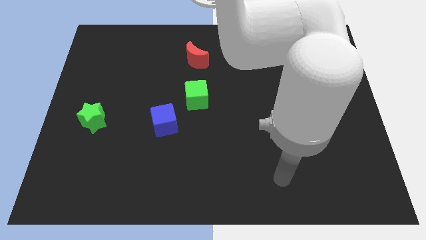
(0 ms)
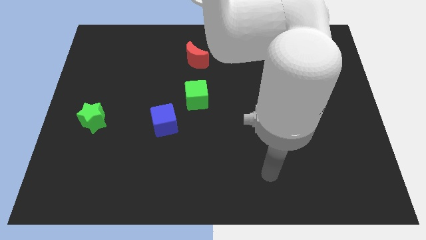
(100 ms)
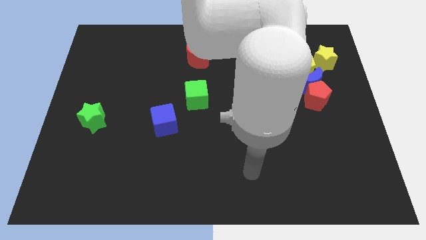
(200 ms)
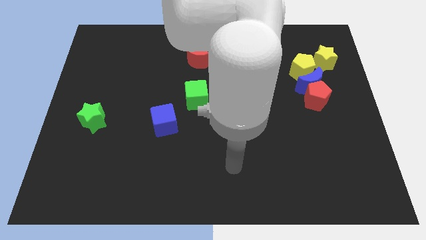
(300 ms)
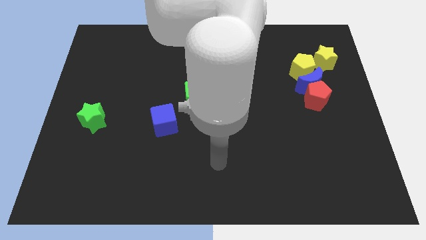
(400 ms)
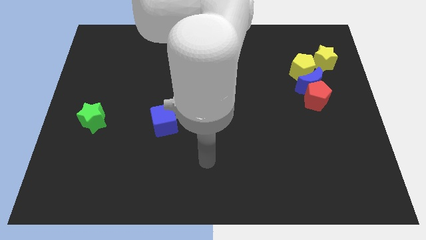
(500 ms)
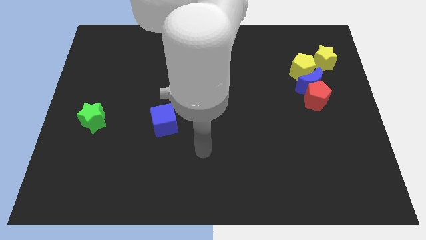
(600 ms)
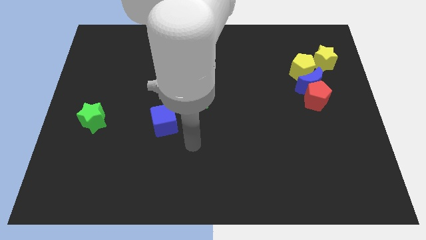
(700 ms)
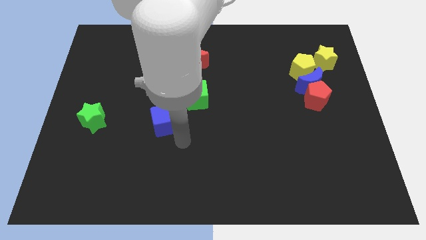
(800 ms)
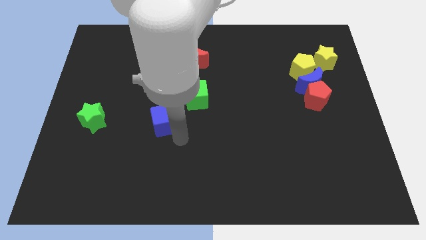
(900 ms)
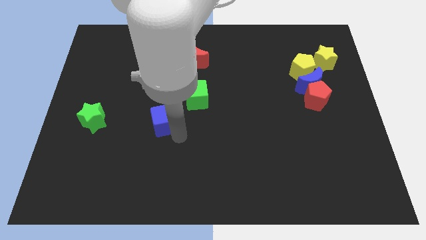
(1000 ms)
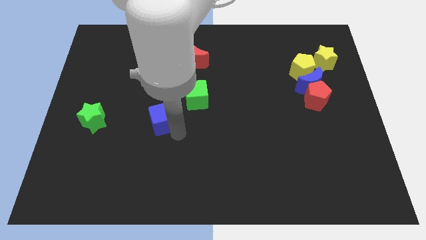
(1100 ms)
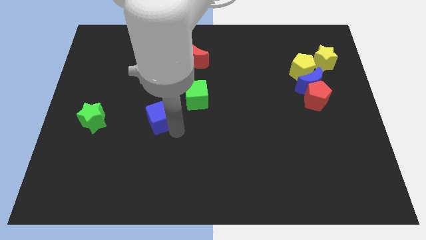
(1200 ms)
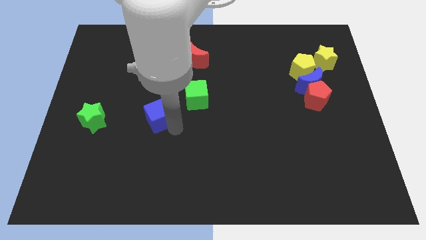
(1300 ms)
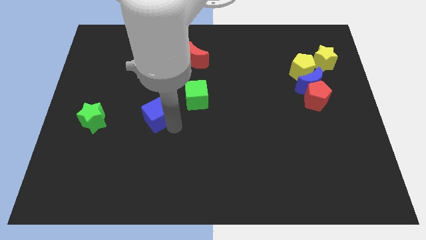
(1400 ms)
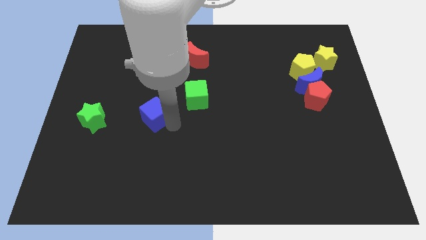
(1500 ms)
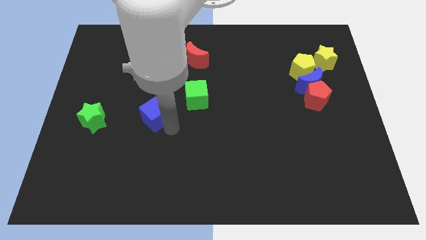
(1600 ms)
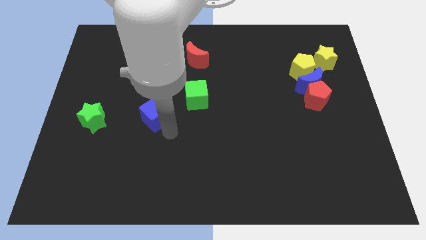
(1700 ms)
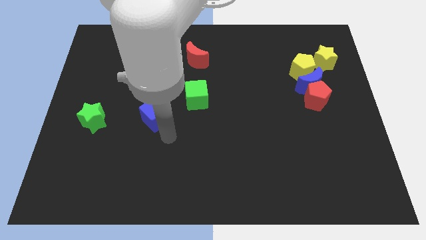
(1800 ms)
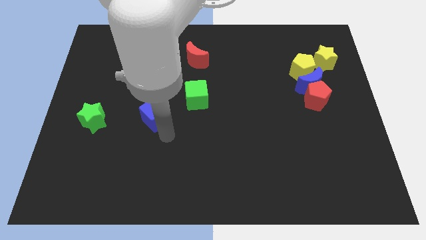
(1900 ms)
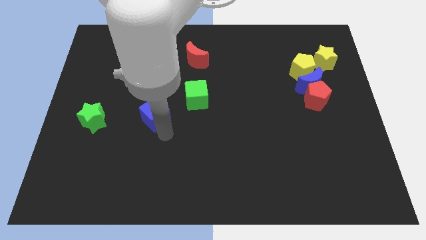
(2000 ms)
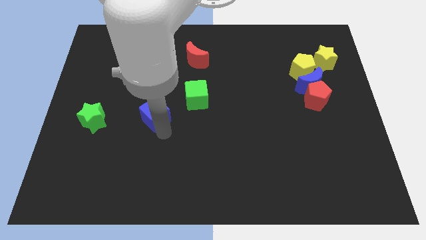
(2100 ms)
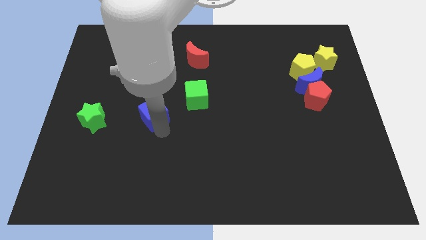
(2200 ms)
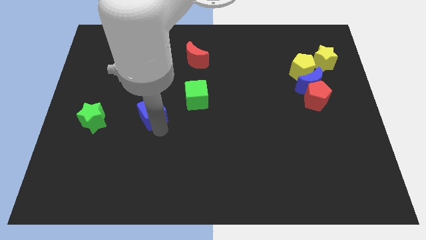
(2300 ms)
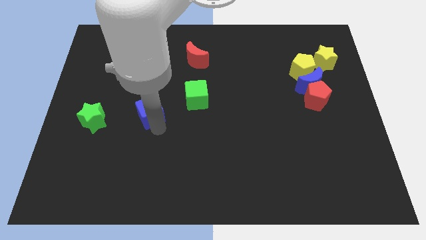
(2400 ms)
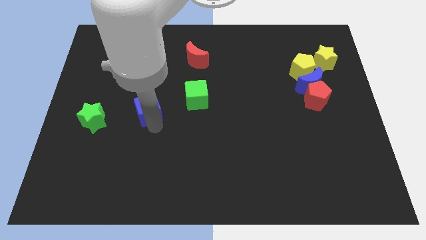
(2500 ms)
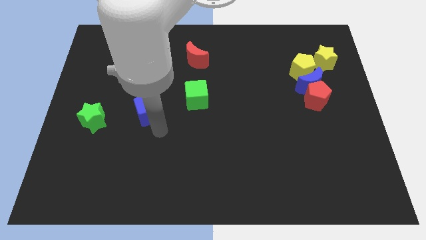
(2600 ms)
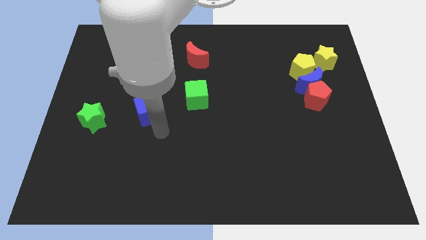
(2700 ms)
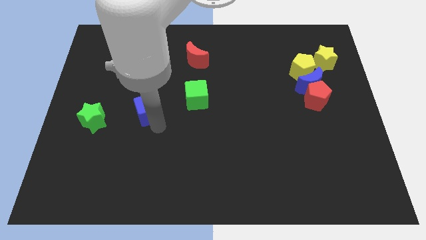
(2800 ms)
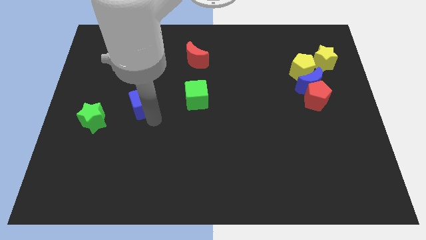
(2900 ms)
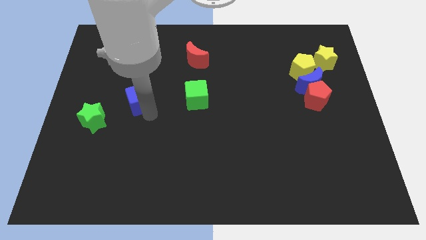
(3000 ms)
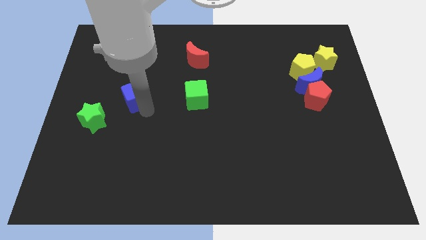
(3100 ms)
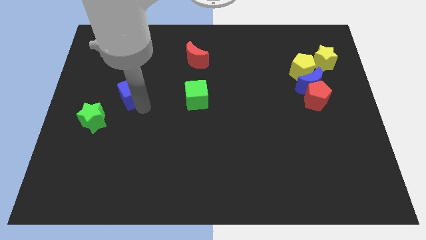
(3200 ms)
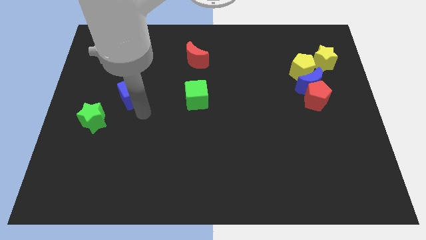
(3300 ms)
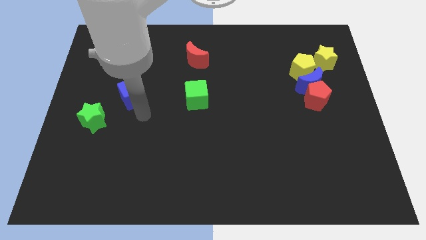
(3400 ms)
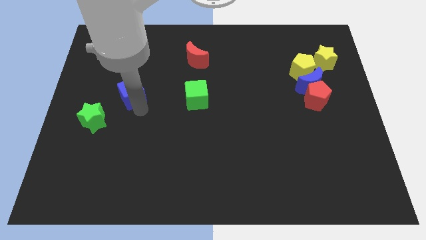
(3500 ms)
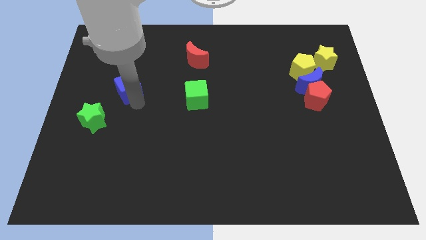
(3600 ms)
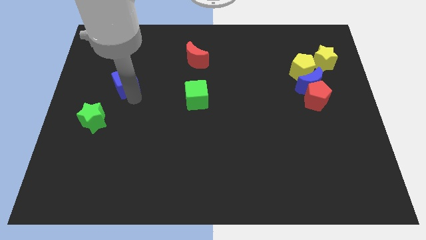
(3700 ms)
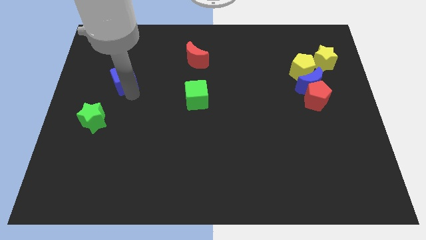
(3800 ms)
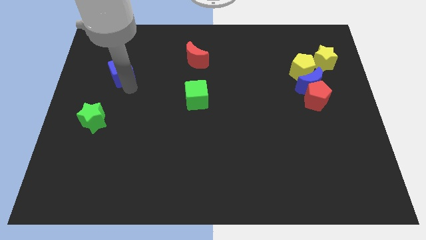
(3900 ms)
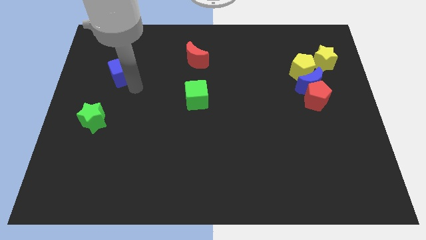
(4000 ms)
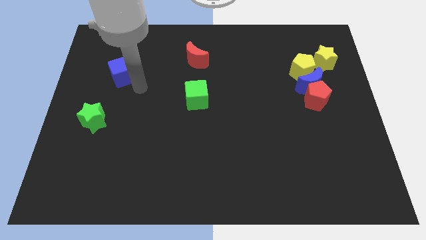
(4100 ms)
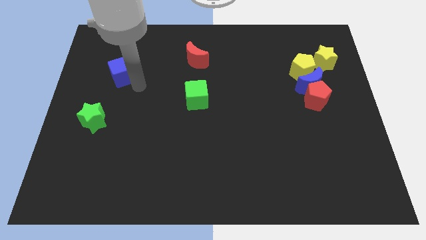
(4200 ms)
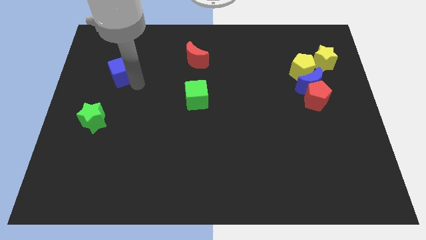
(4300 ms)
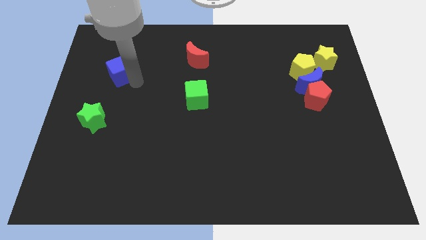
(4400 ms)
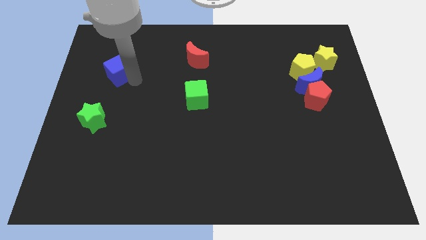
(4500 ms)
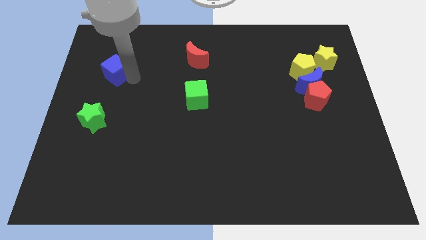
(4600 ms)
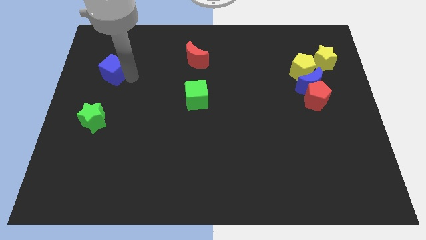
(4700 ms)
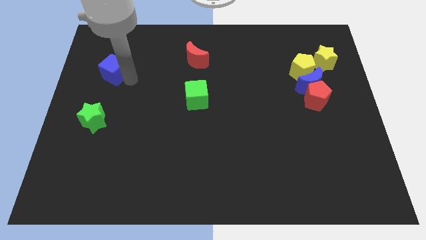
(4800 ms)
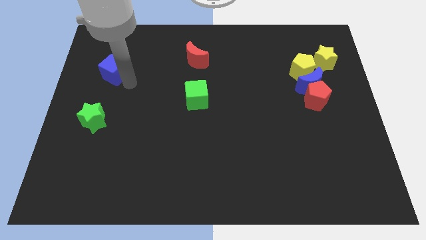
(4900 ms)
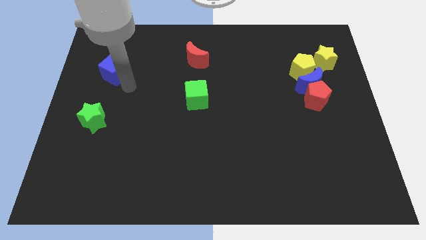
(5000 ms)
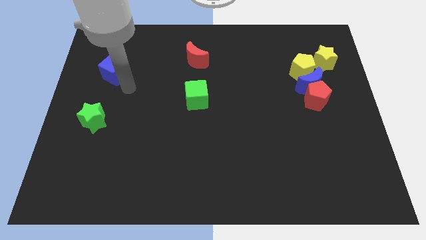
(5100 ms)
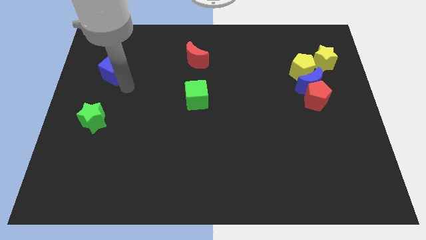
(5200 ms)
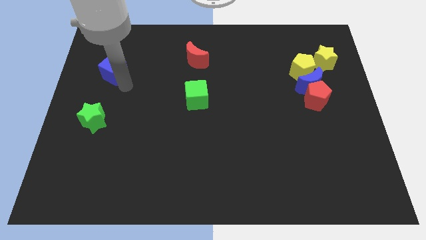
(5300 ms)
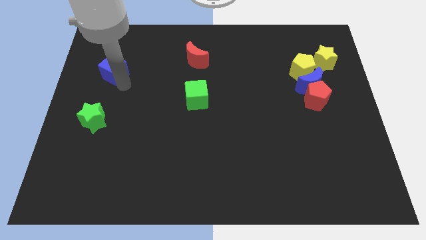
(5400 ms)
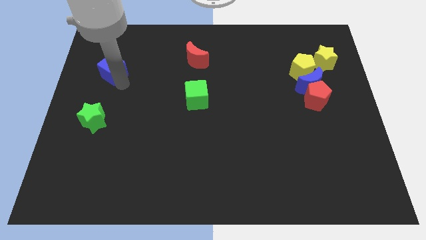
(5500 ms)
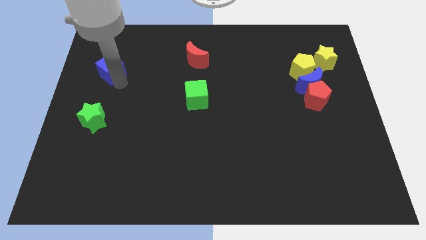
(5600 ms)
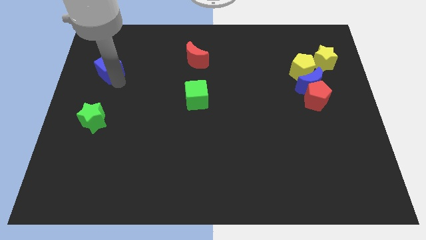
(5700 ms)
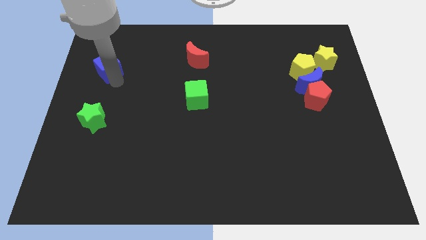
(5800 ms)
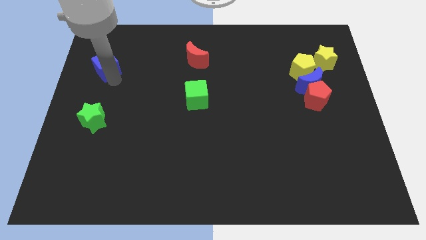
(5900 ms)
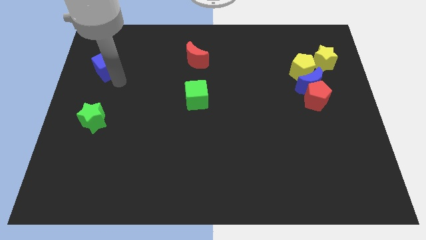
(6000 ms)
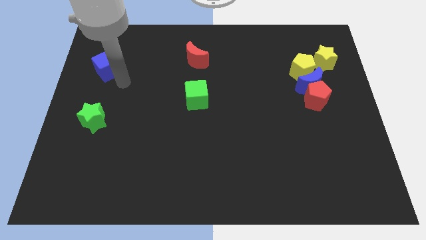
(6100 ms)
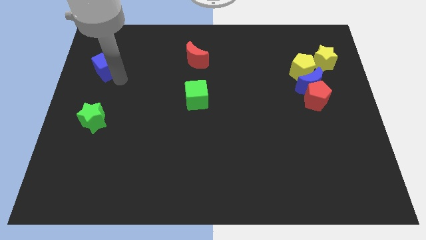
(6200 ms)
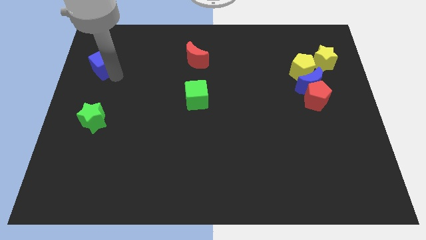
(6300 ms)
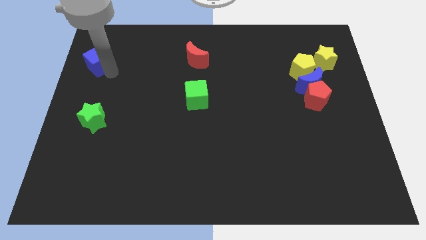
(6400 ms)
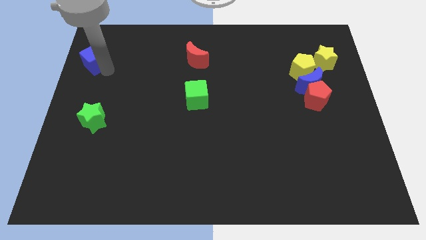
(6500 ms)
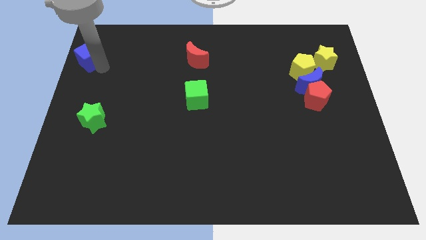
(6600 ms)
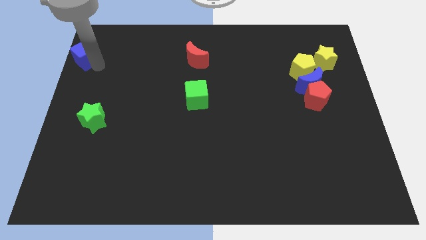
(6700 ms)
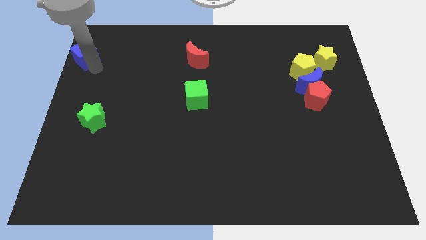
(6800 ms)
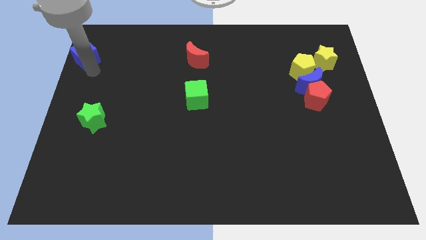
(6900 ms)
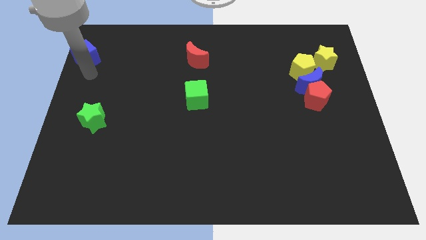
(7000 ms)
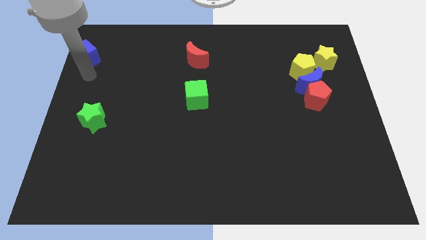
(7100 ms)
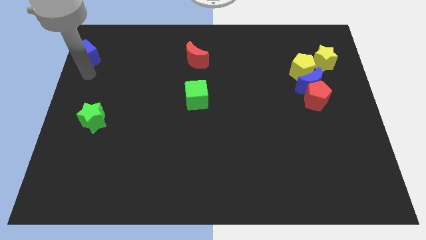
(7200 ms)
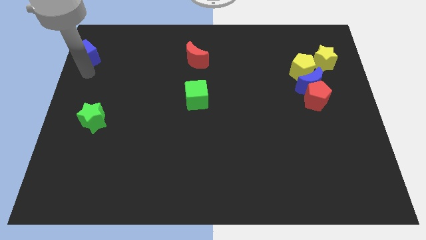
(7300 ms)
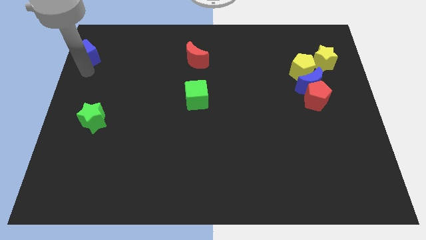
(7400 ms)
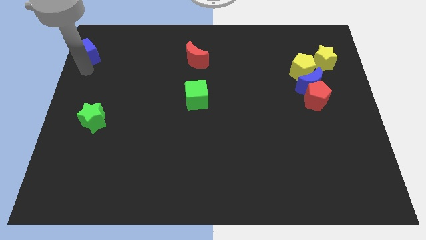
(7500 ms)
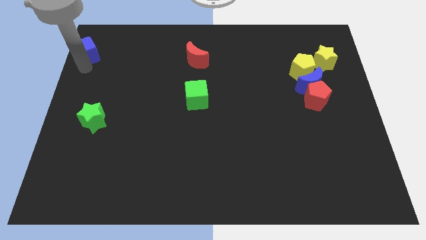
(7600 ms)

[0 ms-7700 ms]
move the blue cube to the top left of the board

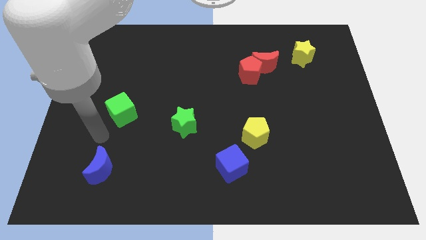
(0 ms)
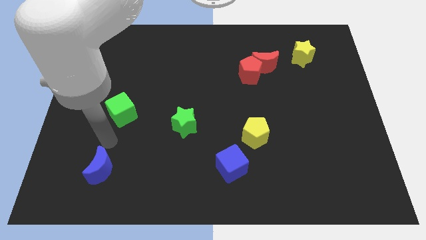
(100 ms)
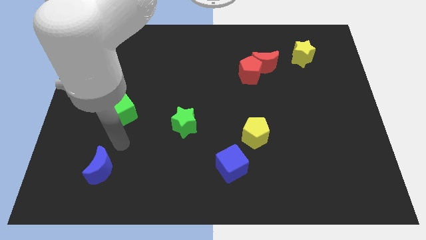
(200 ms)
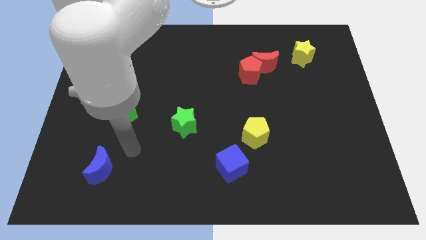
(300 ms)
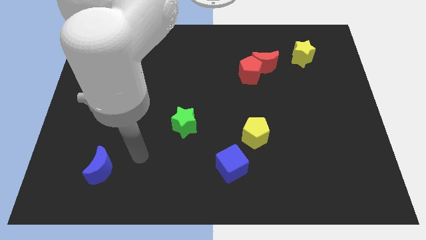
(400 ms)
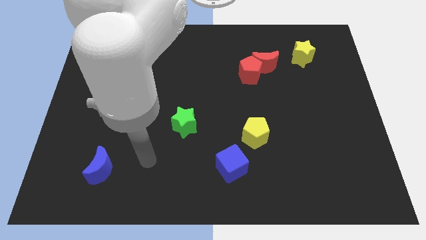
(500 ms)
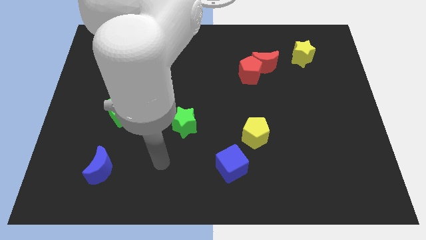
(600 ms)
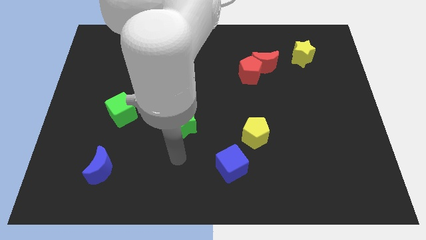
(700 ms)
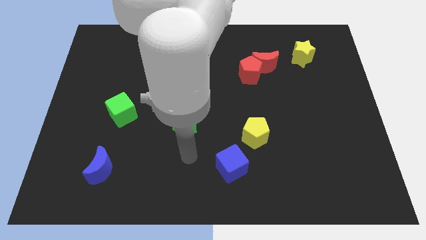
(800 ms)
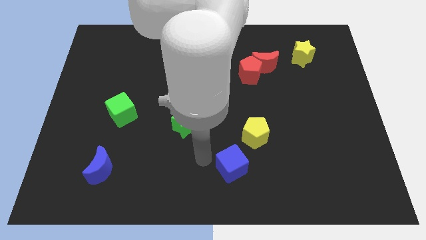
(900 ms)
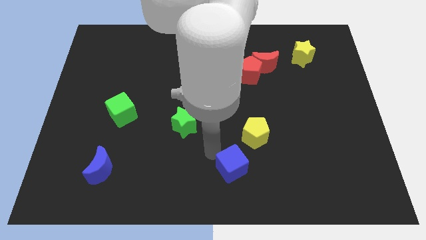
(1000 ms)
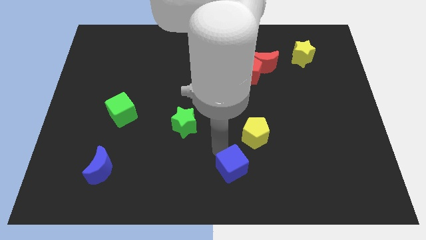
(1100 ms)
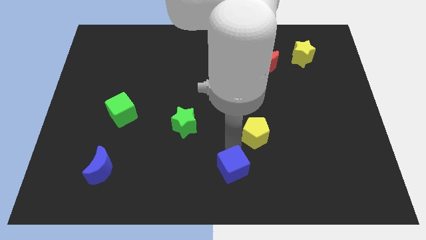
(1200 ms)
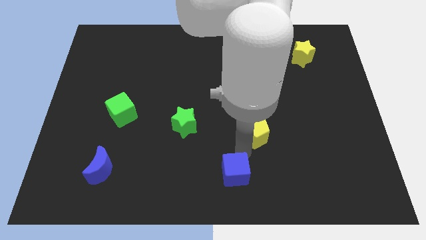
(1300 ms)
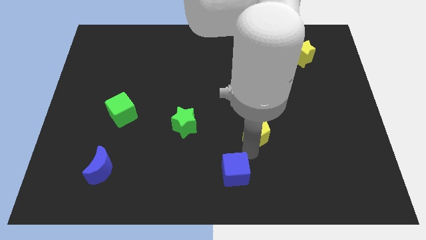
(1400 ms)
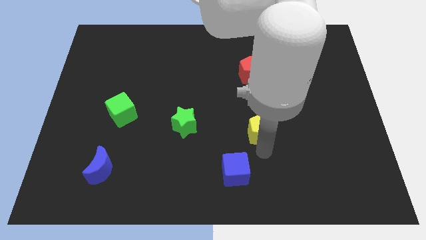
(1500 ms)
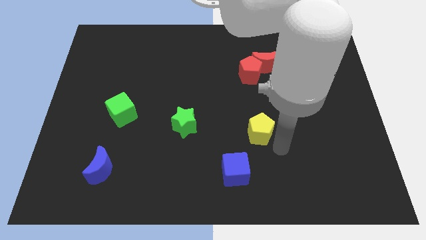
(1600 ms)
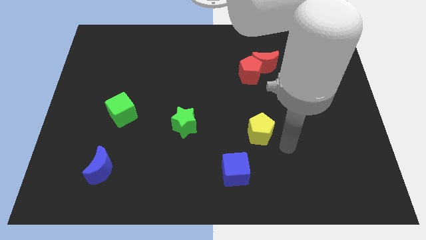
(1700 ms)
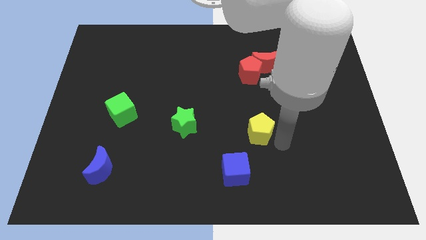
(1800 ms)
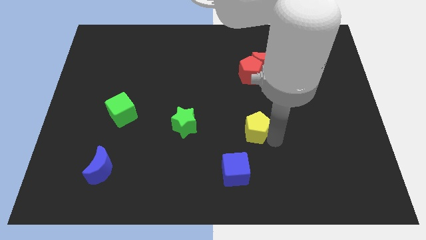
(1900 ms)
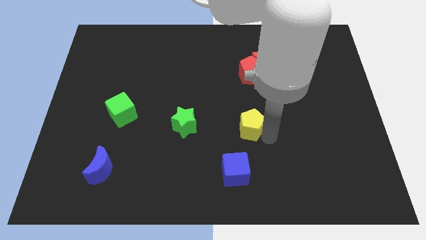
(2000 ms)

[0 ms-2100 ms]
put the yellow pentagon to the middle of the board
